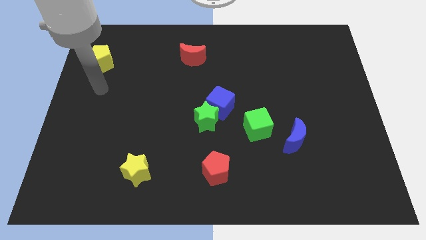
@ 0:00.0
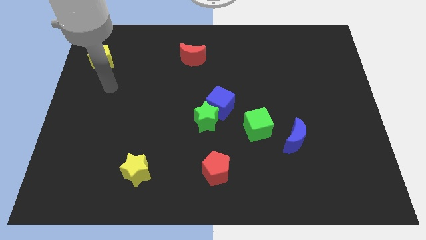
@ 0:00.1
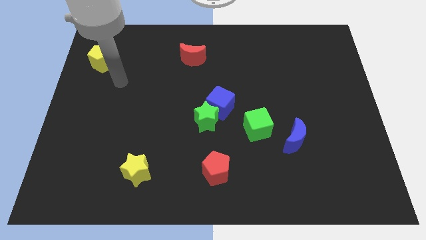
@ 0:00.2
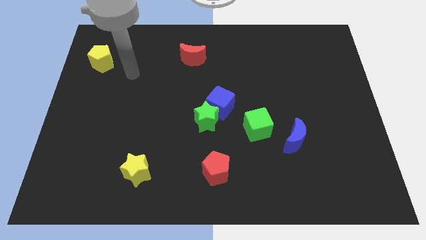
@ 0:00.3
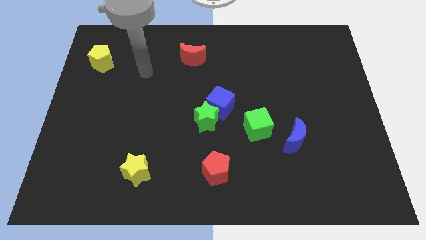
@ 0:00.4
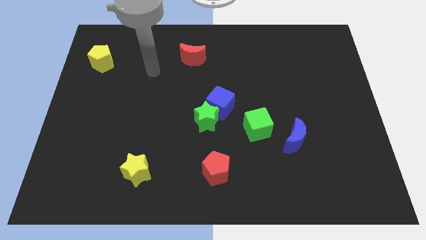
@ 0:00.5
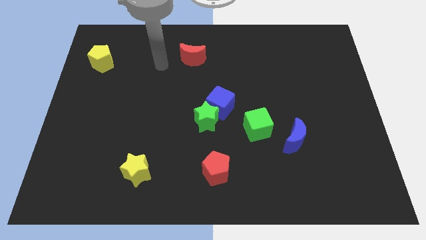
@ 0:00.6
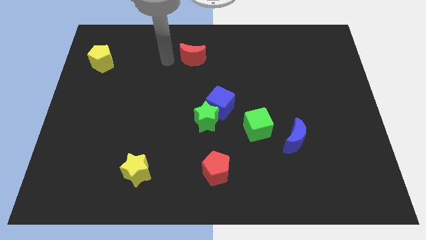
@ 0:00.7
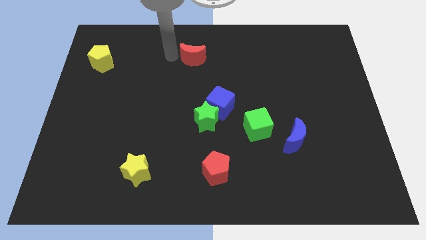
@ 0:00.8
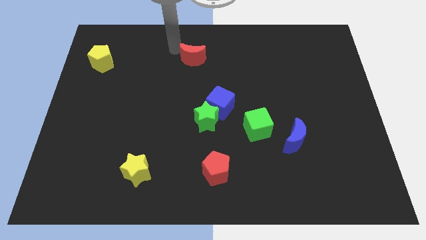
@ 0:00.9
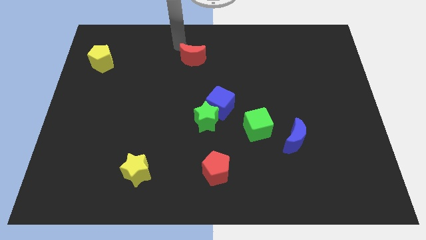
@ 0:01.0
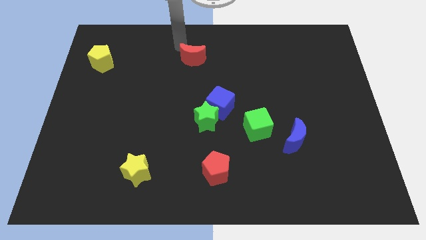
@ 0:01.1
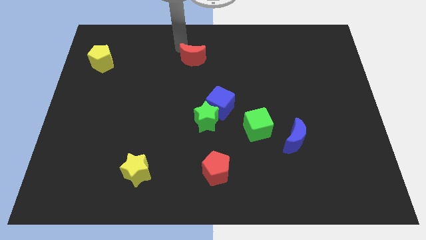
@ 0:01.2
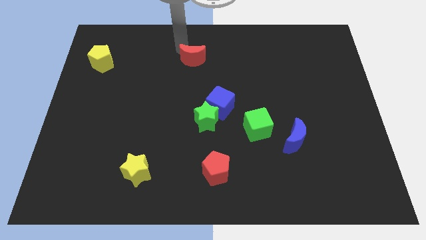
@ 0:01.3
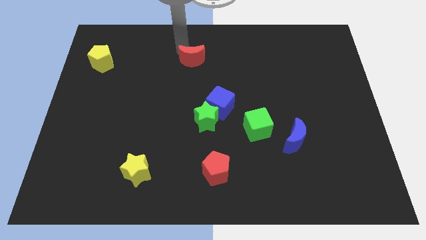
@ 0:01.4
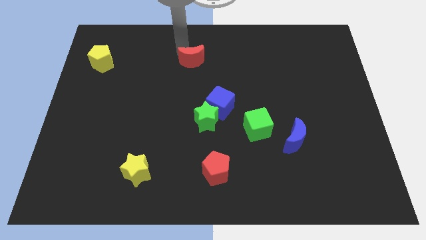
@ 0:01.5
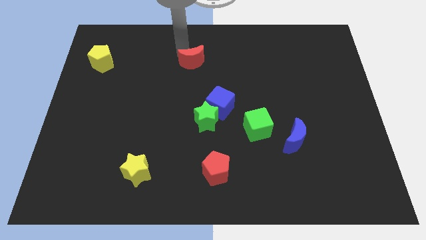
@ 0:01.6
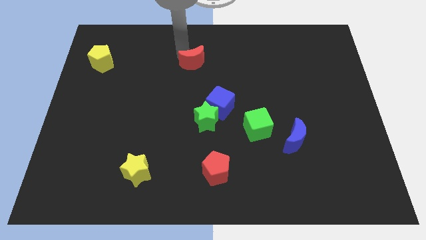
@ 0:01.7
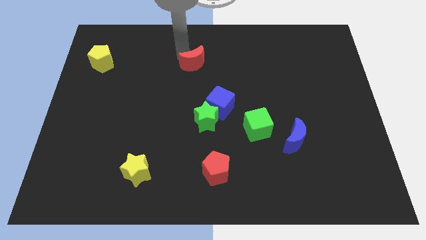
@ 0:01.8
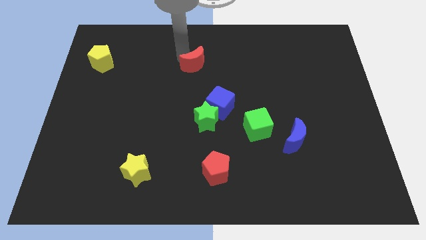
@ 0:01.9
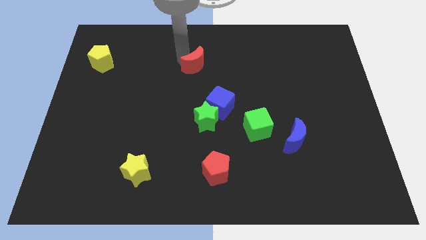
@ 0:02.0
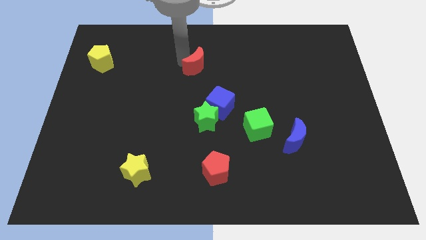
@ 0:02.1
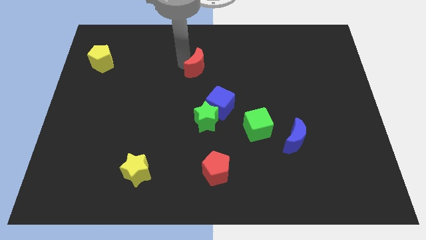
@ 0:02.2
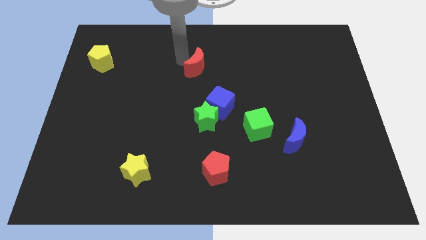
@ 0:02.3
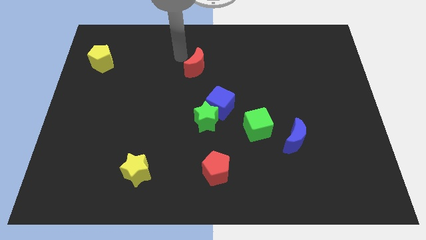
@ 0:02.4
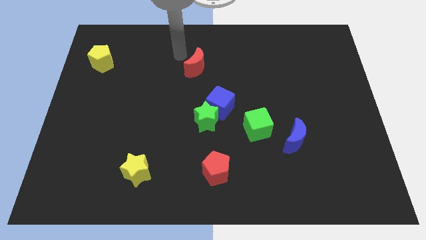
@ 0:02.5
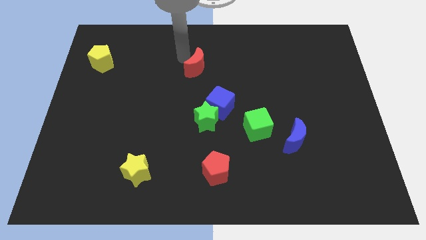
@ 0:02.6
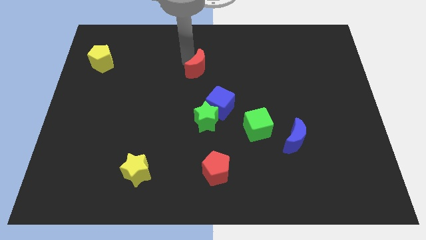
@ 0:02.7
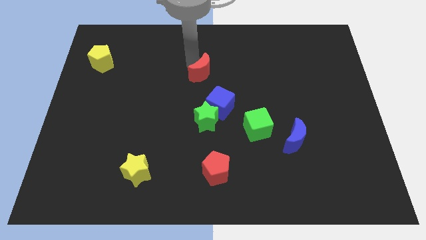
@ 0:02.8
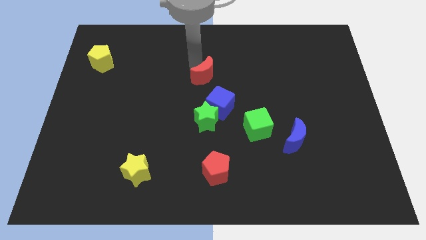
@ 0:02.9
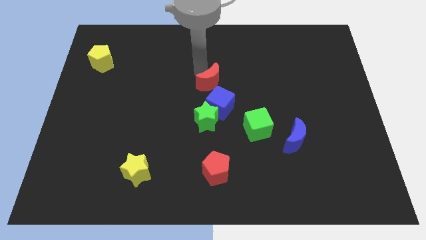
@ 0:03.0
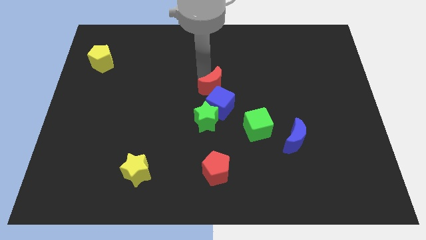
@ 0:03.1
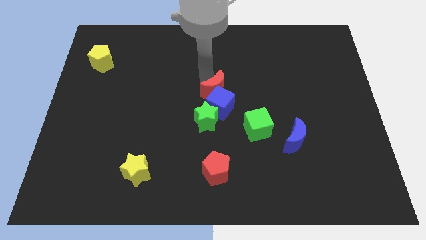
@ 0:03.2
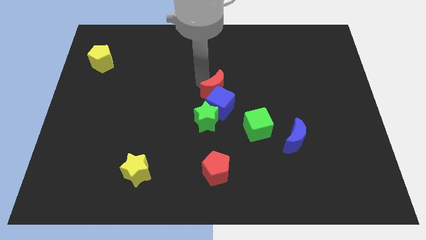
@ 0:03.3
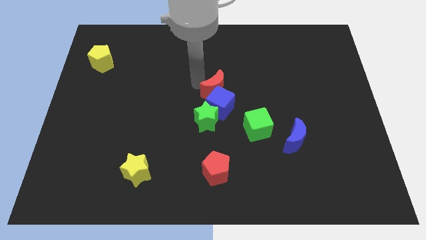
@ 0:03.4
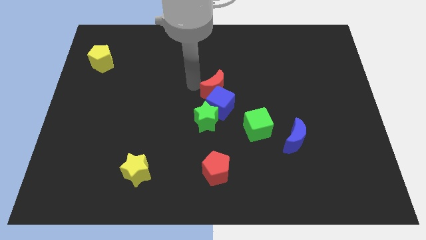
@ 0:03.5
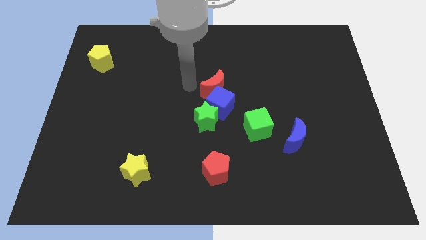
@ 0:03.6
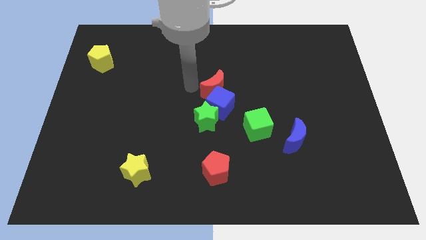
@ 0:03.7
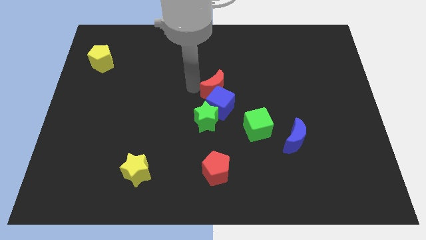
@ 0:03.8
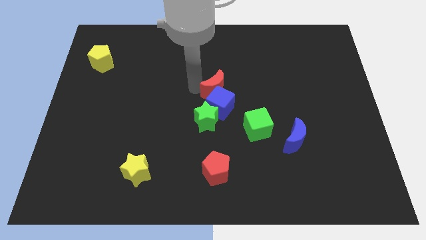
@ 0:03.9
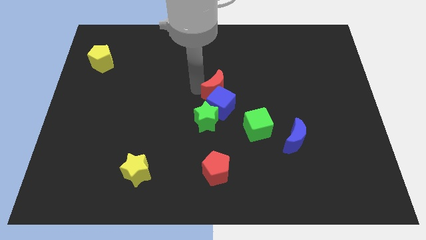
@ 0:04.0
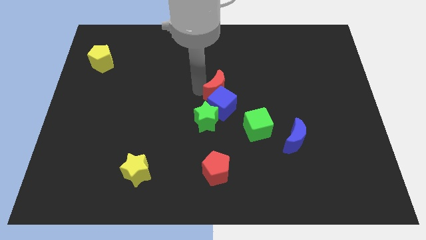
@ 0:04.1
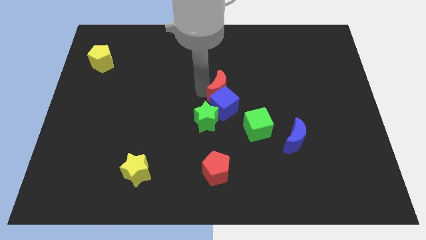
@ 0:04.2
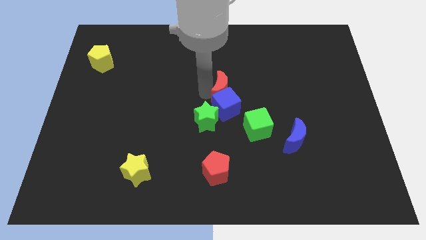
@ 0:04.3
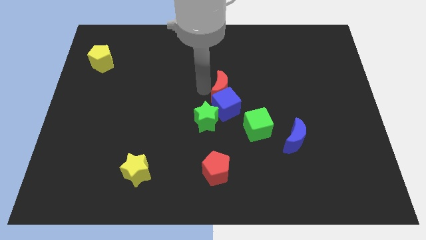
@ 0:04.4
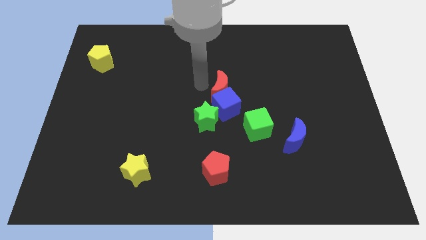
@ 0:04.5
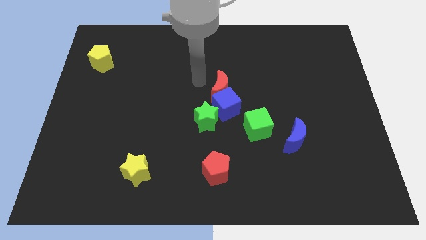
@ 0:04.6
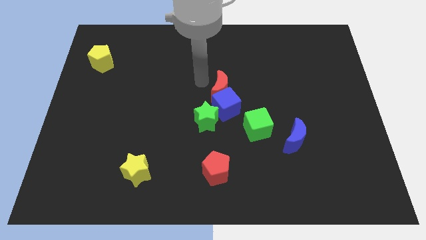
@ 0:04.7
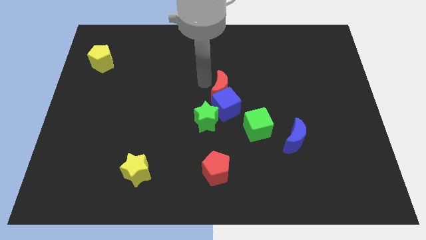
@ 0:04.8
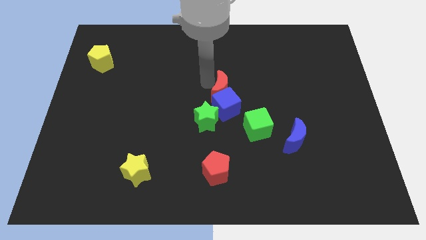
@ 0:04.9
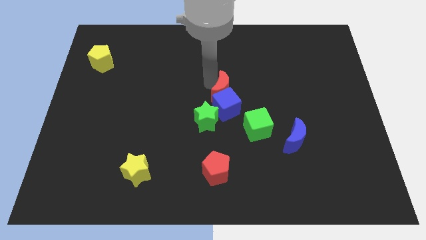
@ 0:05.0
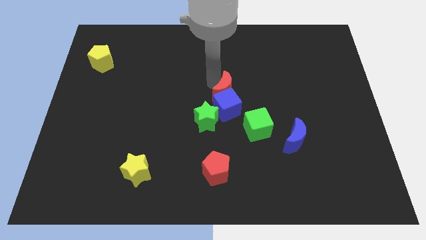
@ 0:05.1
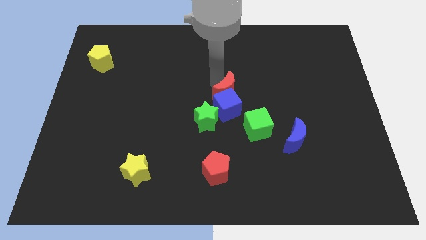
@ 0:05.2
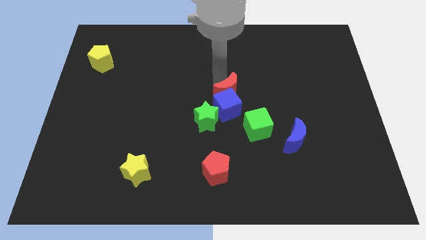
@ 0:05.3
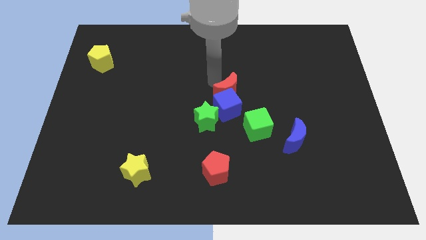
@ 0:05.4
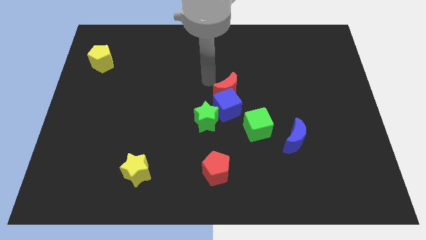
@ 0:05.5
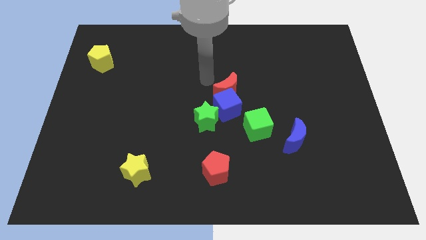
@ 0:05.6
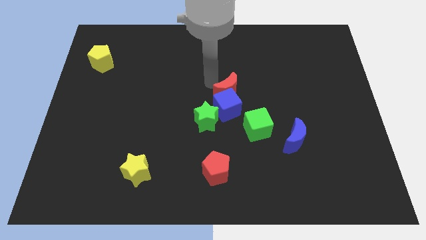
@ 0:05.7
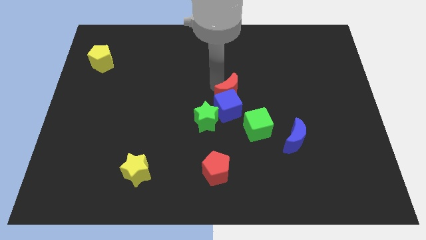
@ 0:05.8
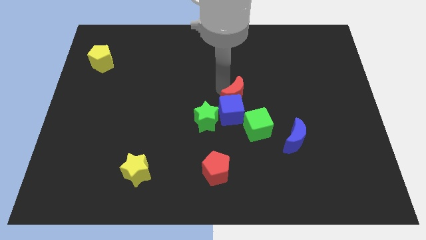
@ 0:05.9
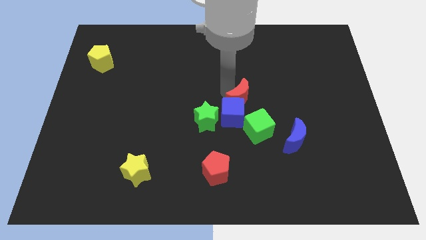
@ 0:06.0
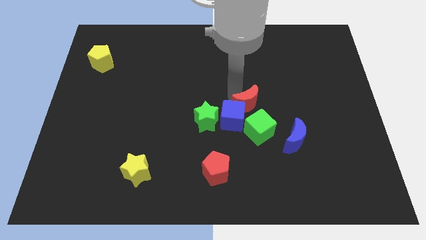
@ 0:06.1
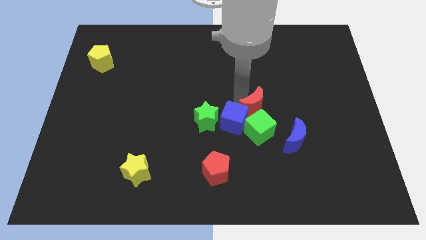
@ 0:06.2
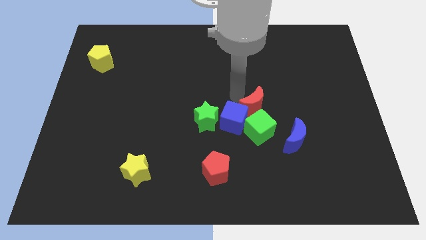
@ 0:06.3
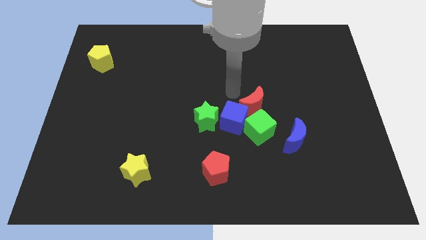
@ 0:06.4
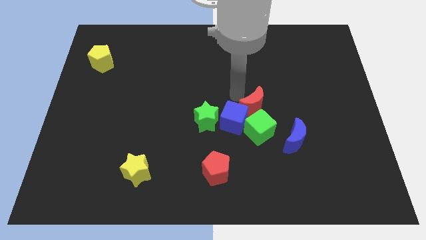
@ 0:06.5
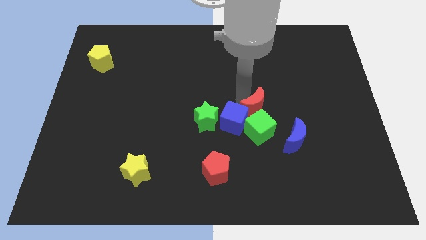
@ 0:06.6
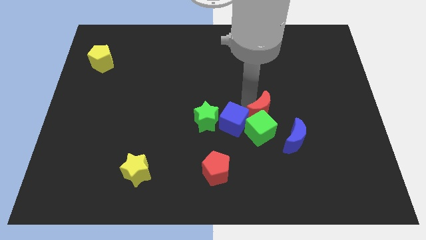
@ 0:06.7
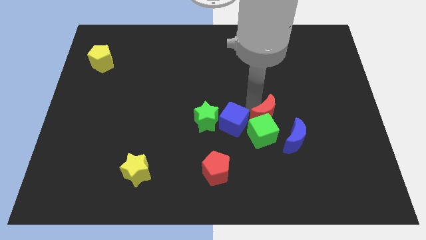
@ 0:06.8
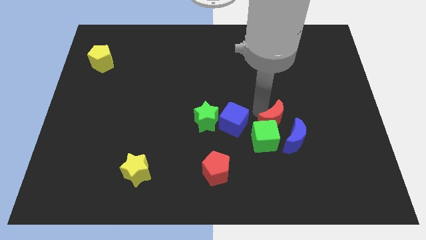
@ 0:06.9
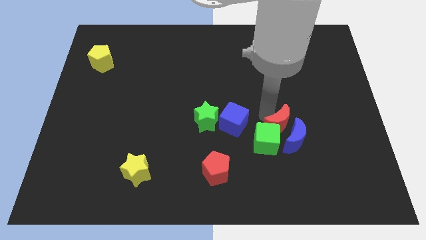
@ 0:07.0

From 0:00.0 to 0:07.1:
put the red moon next to the blue moon
